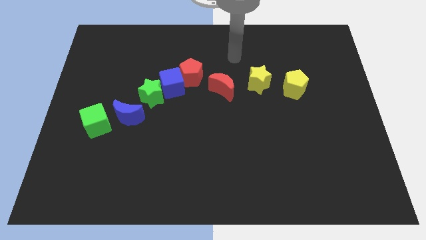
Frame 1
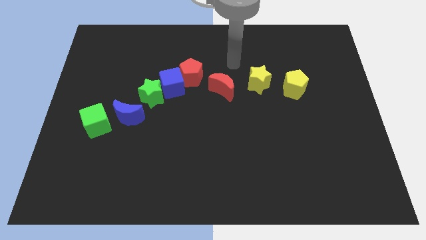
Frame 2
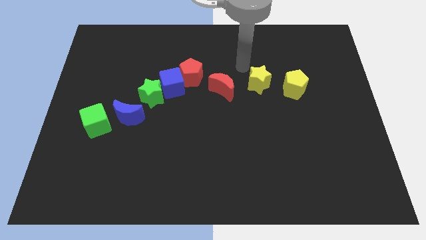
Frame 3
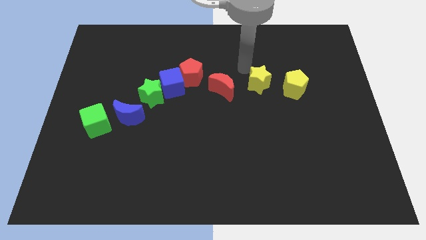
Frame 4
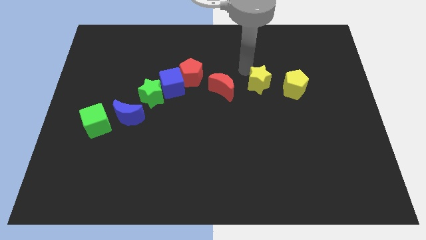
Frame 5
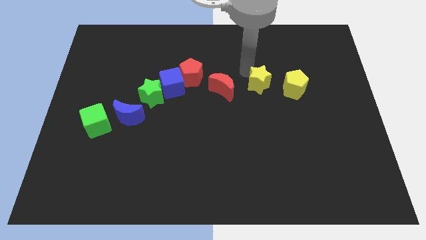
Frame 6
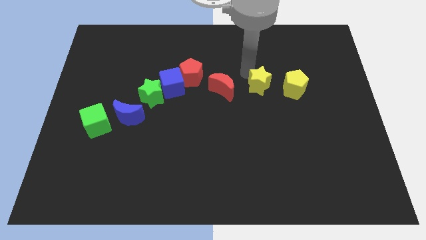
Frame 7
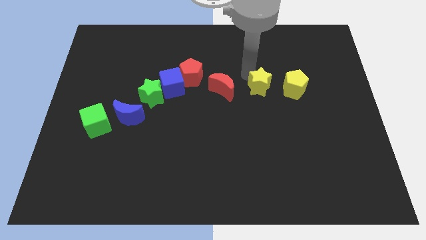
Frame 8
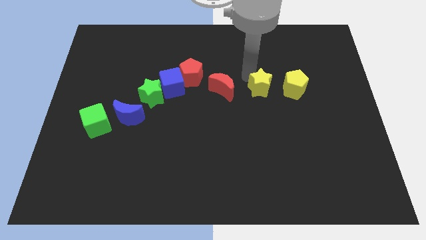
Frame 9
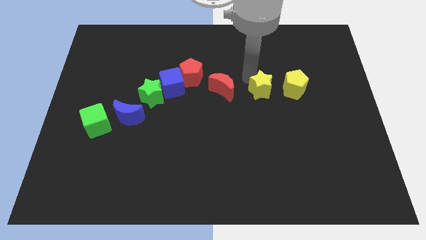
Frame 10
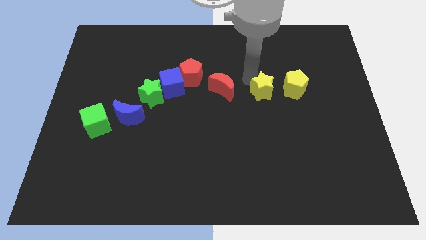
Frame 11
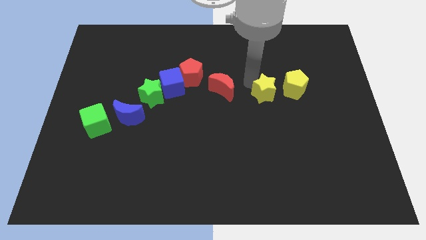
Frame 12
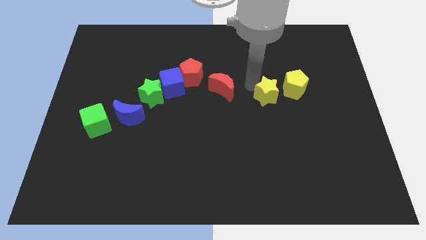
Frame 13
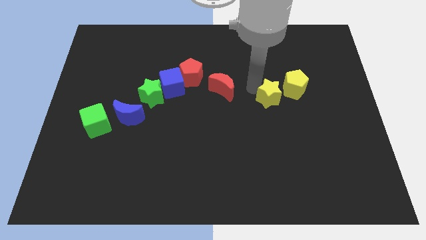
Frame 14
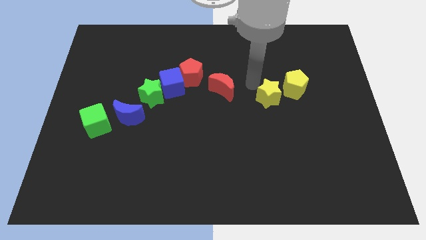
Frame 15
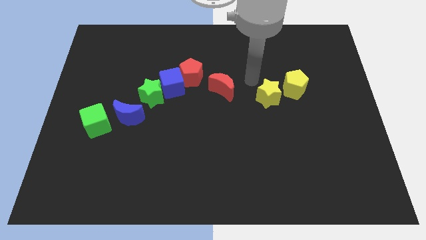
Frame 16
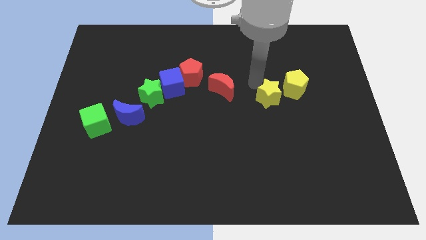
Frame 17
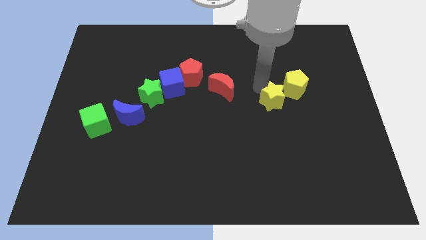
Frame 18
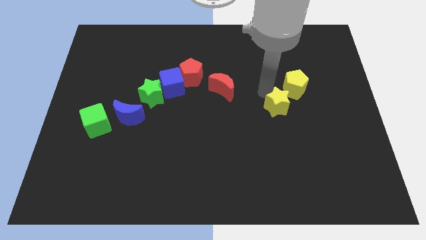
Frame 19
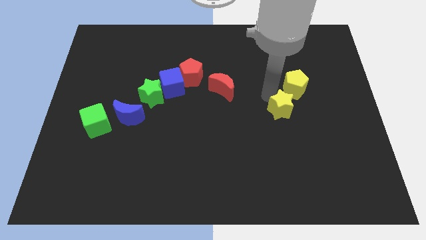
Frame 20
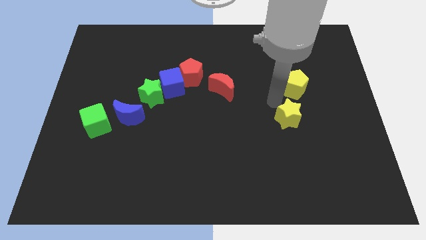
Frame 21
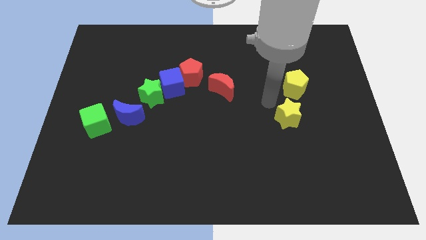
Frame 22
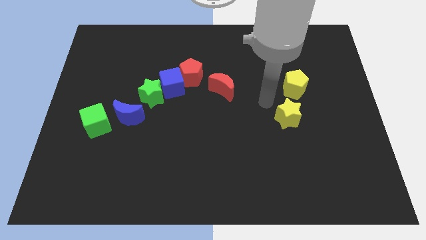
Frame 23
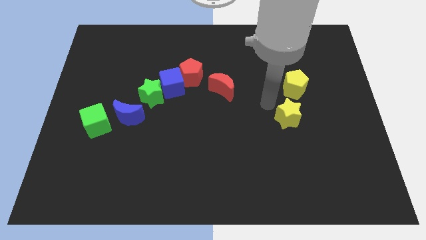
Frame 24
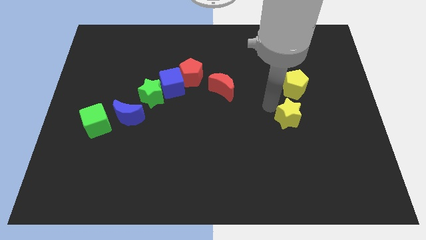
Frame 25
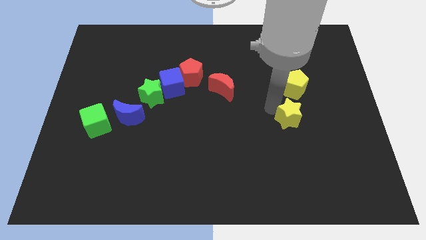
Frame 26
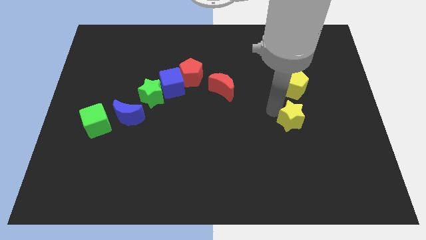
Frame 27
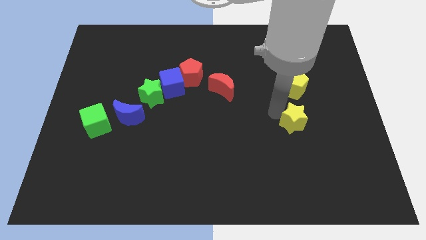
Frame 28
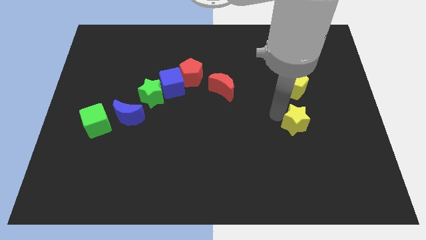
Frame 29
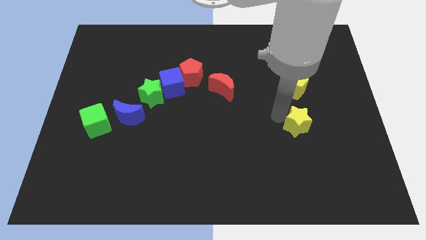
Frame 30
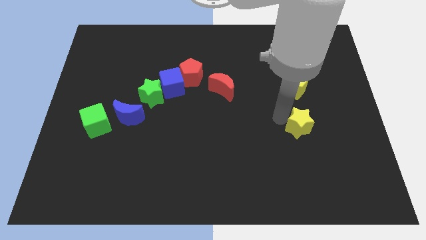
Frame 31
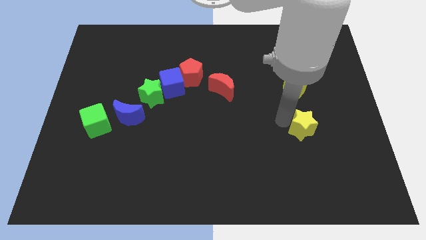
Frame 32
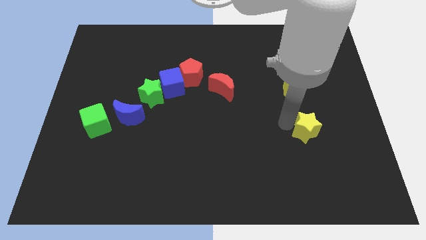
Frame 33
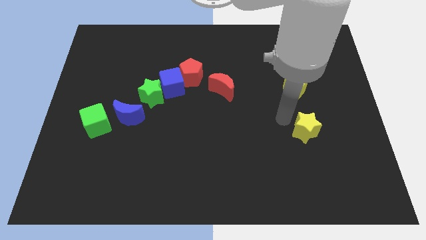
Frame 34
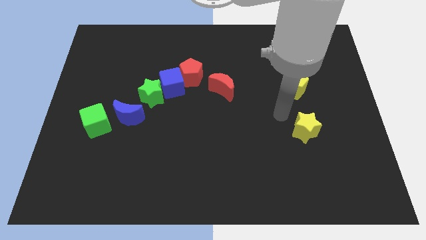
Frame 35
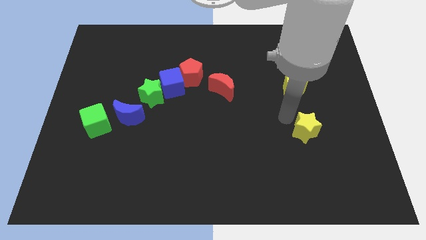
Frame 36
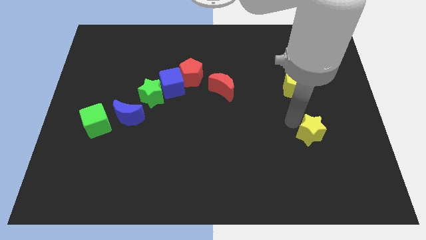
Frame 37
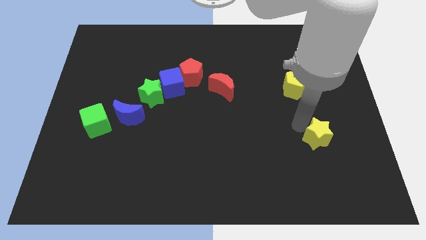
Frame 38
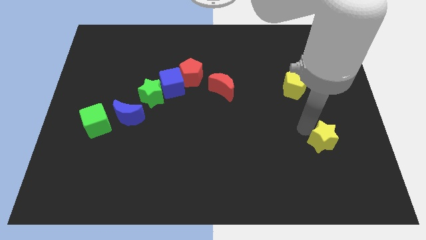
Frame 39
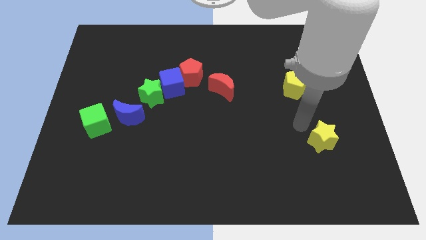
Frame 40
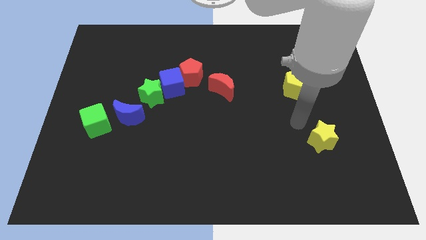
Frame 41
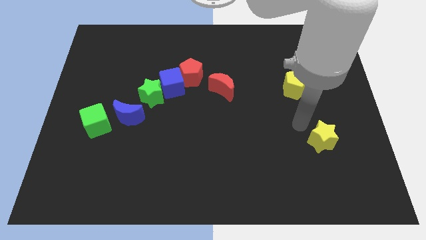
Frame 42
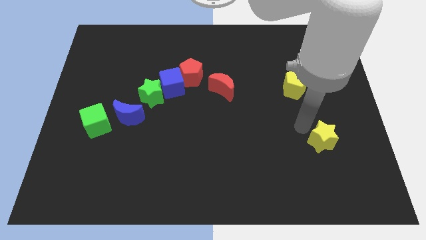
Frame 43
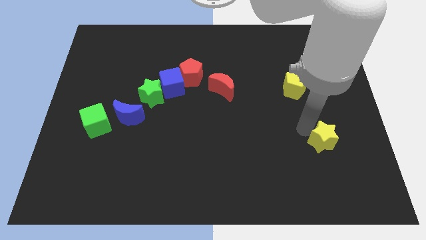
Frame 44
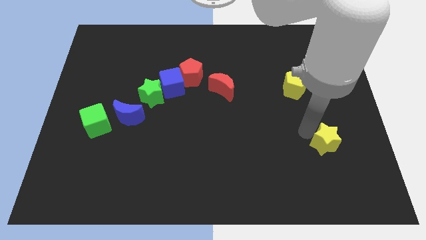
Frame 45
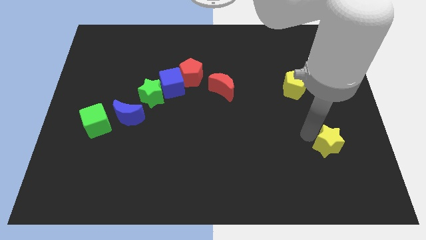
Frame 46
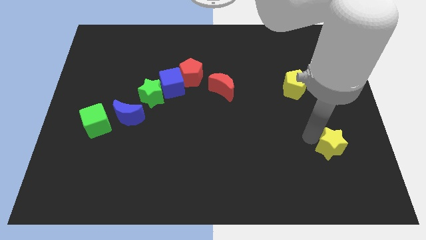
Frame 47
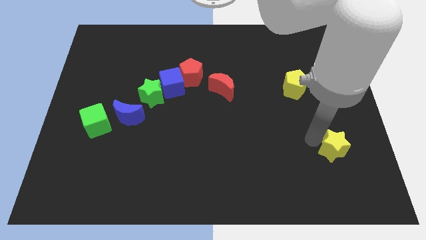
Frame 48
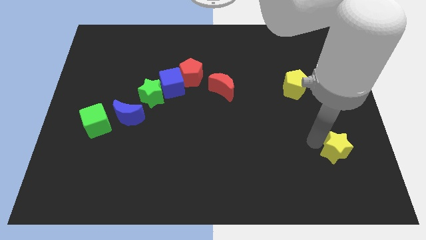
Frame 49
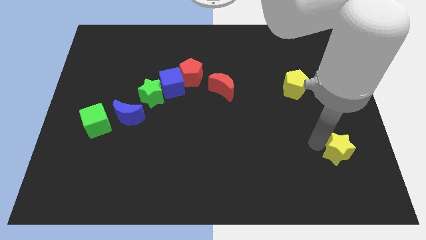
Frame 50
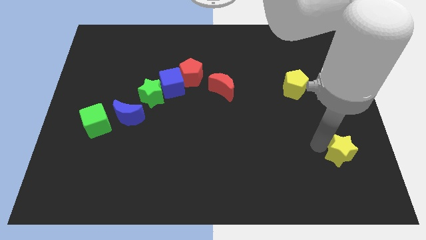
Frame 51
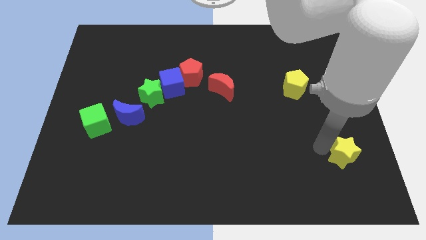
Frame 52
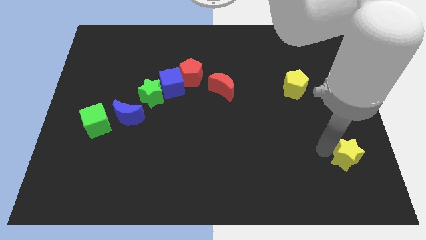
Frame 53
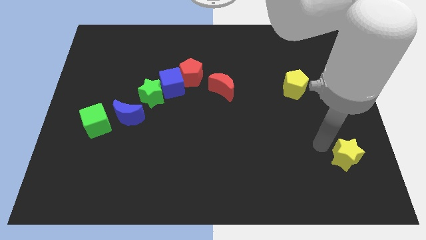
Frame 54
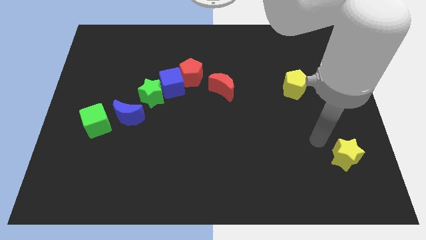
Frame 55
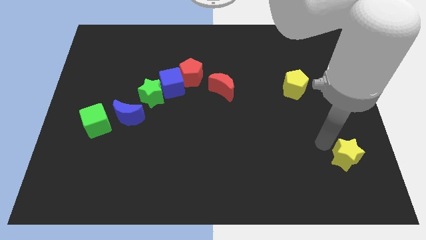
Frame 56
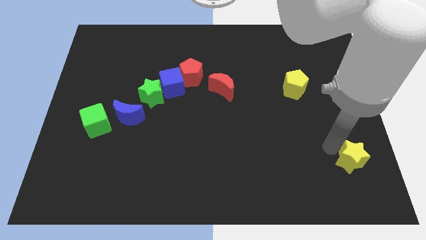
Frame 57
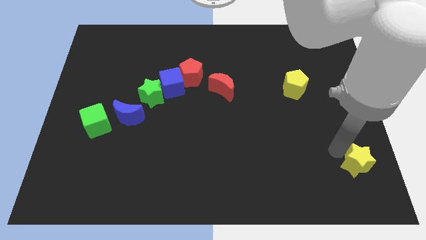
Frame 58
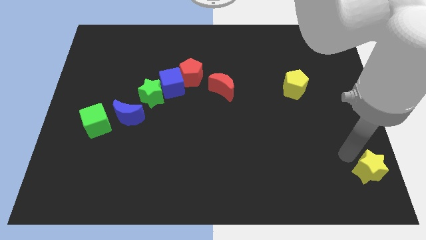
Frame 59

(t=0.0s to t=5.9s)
push the yellow star to the bottom right

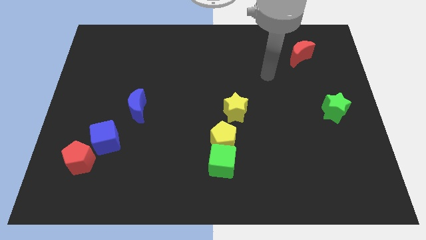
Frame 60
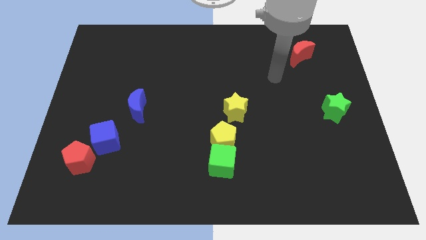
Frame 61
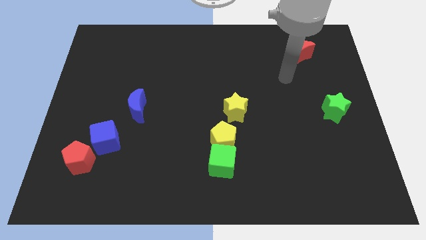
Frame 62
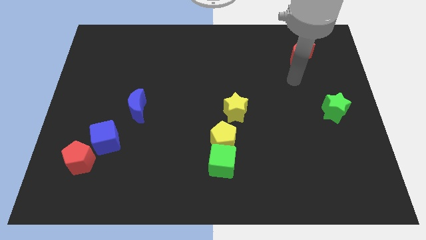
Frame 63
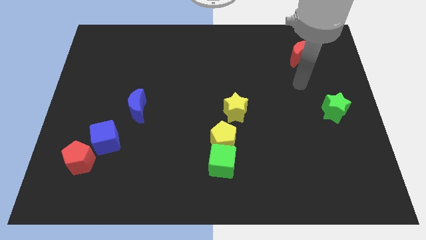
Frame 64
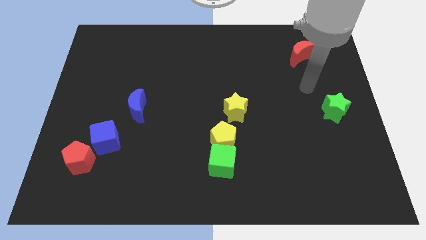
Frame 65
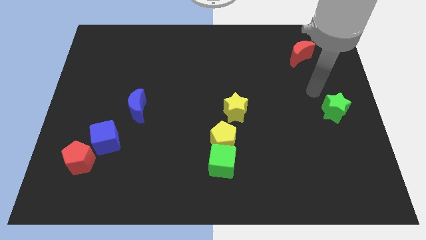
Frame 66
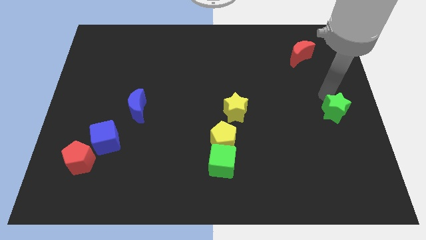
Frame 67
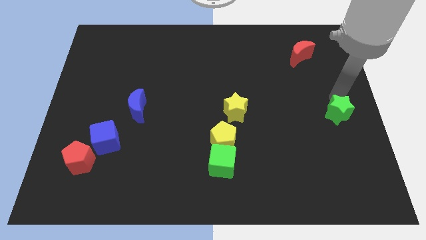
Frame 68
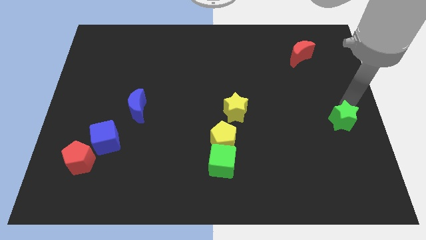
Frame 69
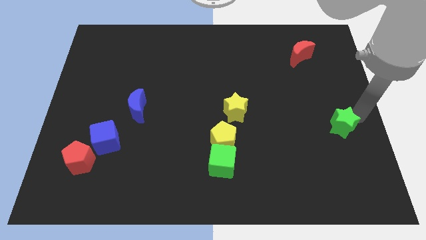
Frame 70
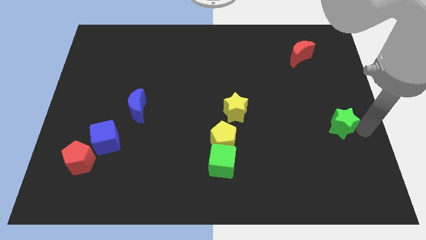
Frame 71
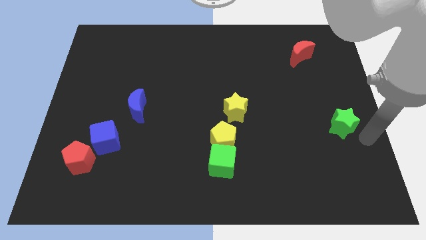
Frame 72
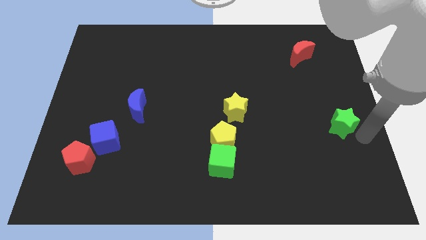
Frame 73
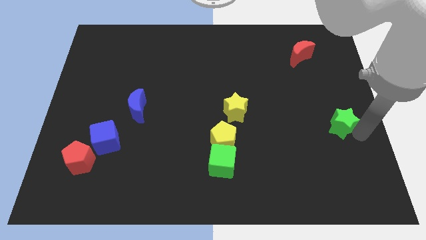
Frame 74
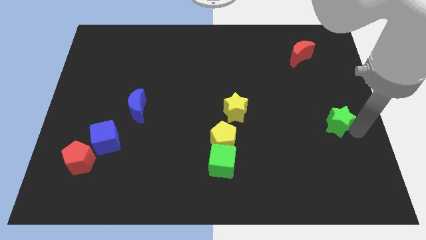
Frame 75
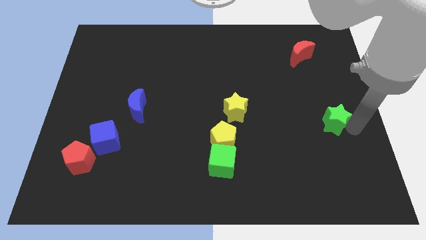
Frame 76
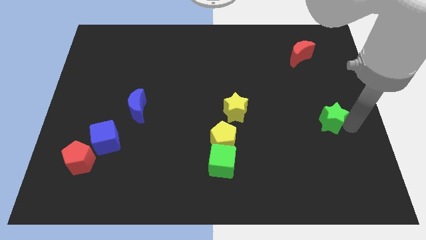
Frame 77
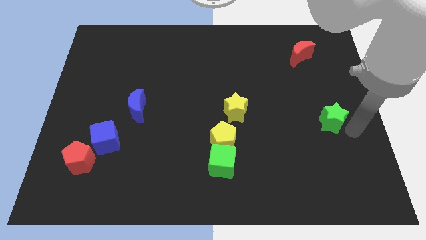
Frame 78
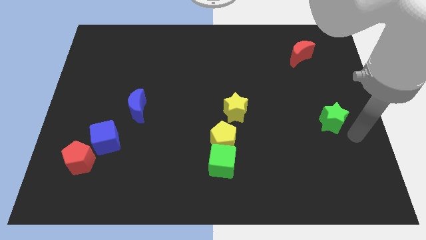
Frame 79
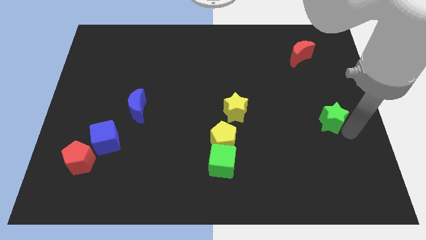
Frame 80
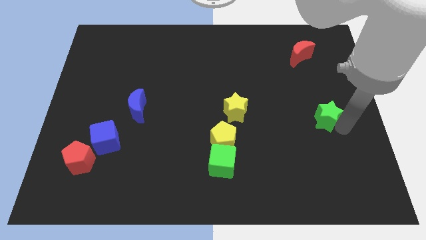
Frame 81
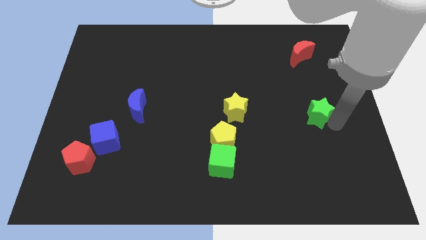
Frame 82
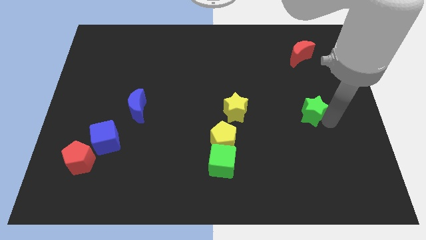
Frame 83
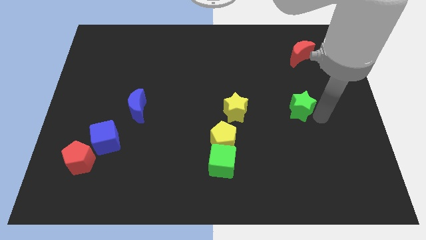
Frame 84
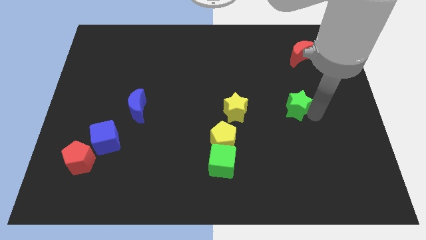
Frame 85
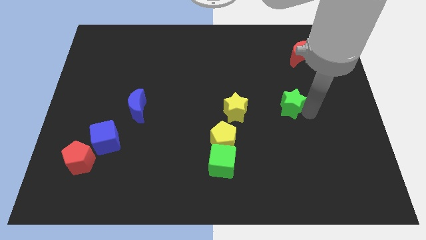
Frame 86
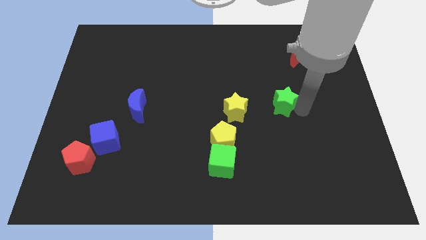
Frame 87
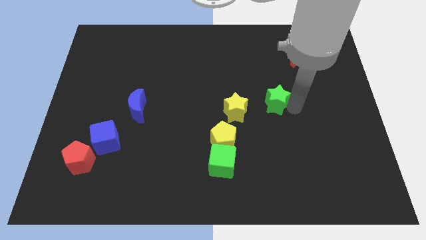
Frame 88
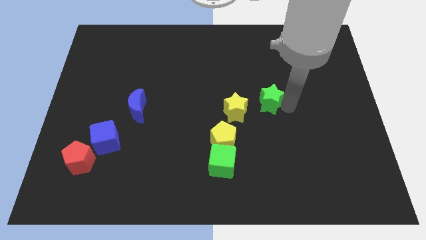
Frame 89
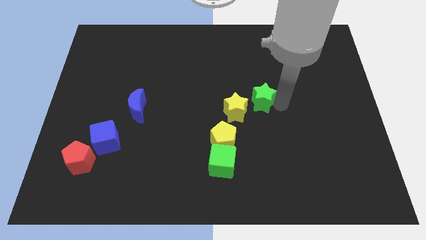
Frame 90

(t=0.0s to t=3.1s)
push the green star to the center
